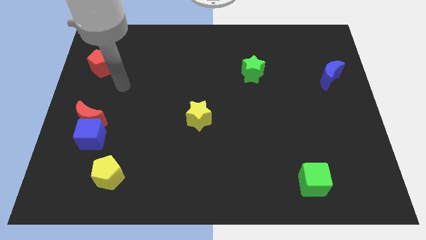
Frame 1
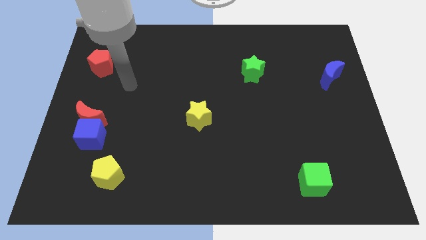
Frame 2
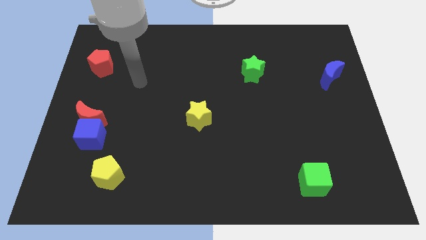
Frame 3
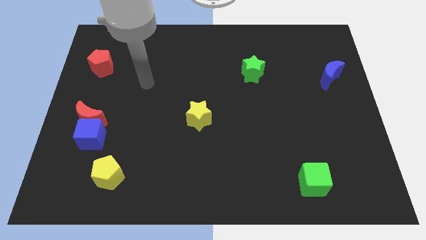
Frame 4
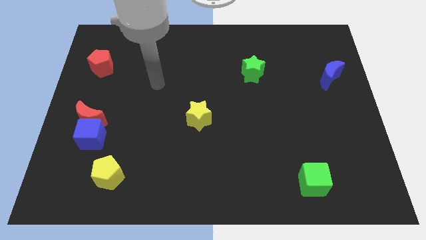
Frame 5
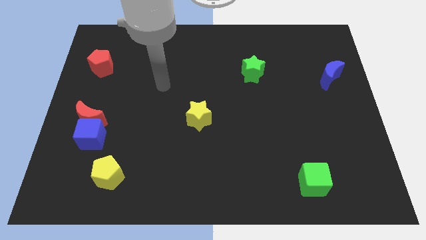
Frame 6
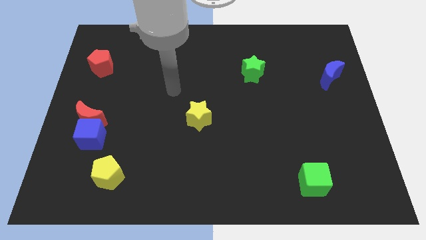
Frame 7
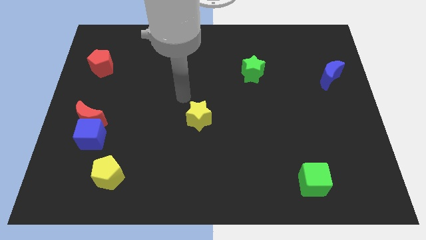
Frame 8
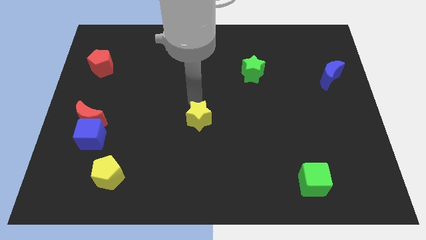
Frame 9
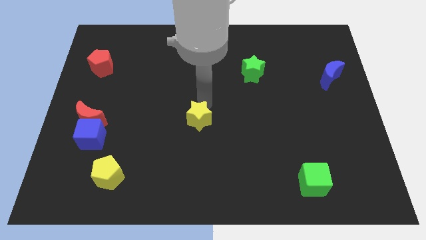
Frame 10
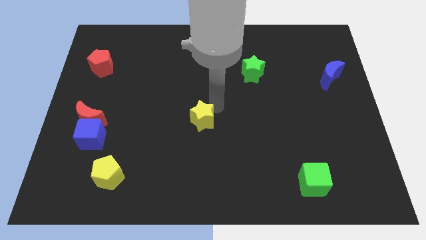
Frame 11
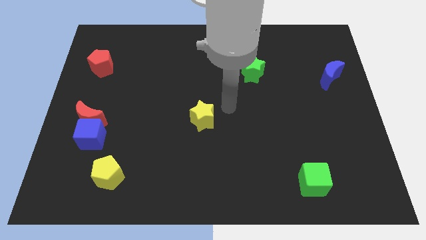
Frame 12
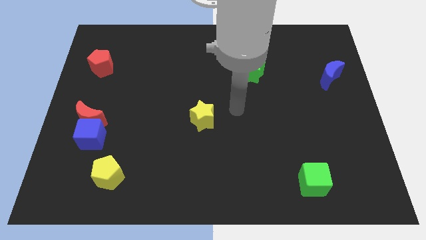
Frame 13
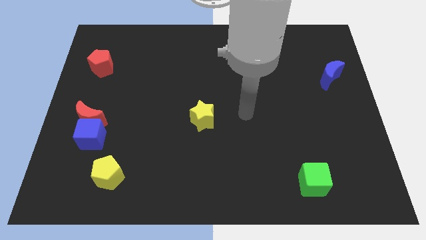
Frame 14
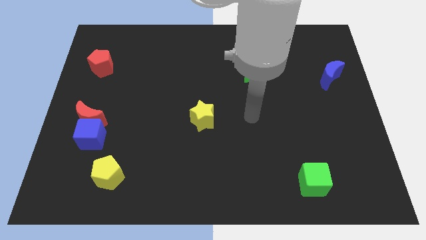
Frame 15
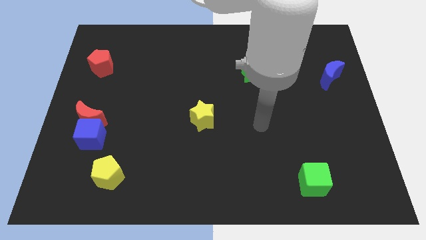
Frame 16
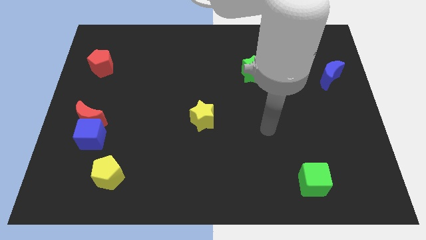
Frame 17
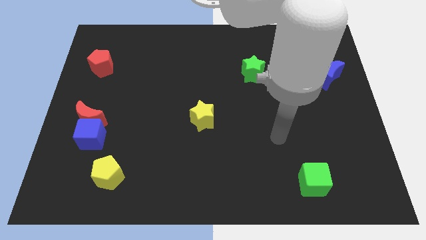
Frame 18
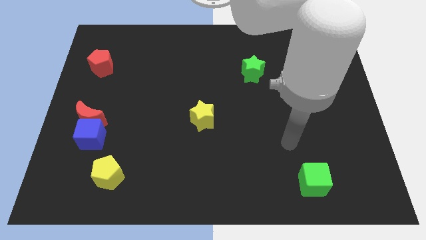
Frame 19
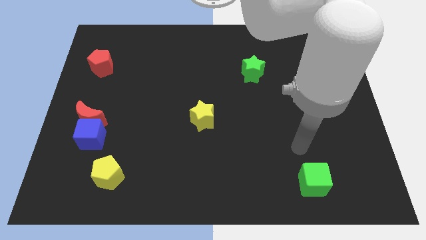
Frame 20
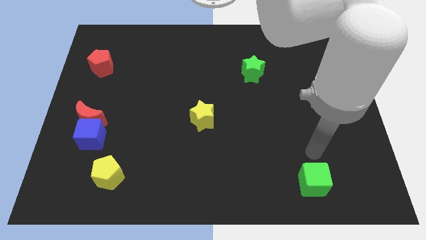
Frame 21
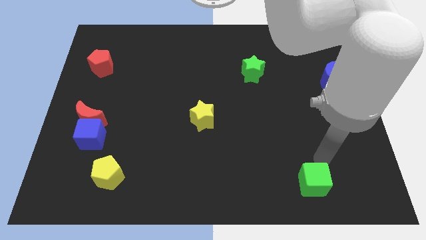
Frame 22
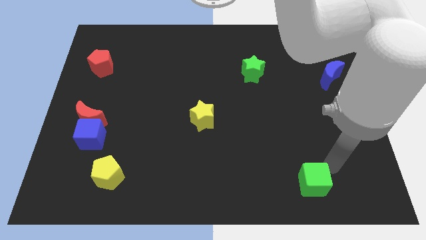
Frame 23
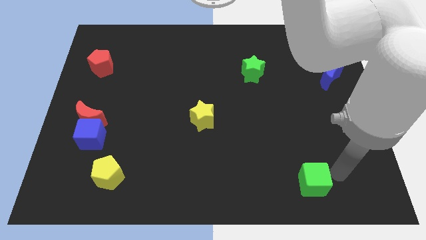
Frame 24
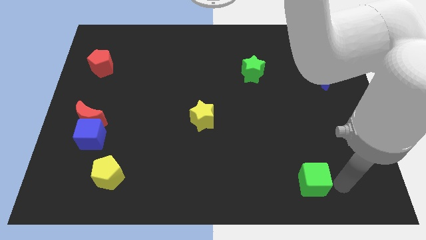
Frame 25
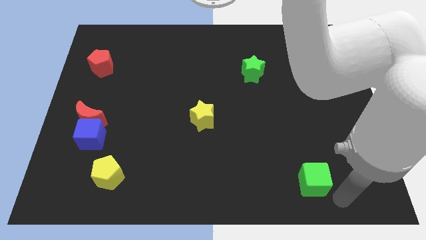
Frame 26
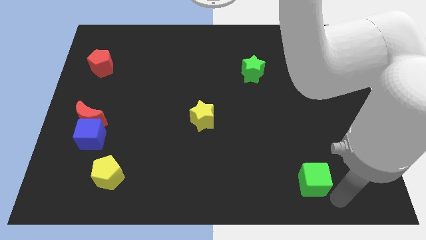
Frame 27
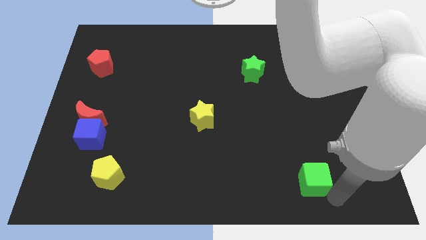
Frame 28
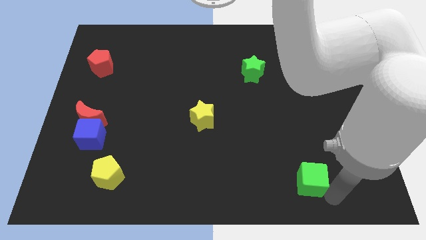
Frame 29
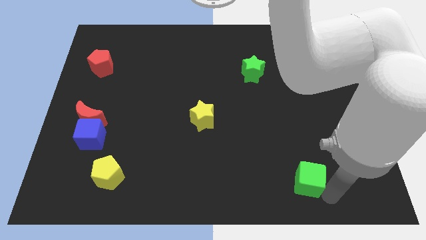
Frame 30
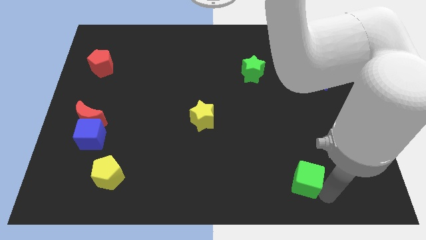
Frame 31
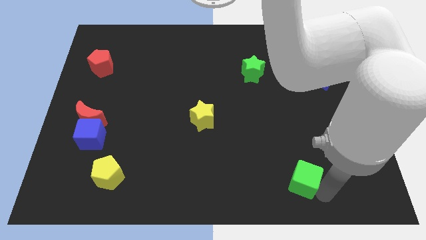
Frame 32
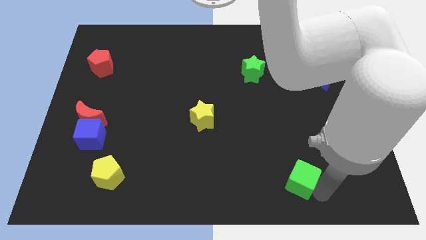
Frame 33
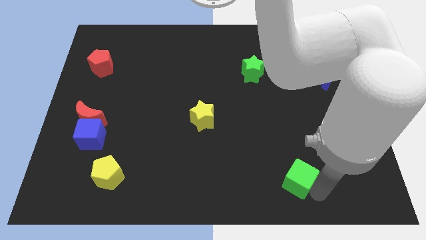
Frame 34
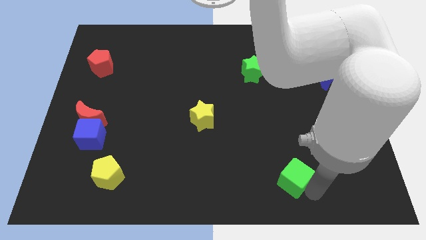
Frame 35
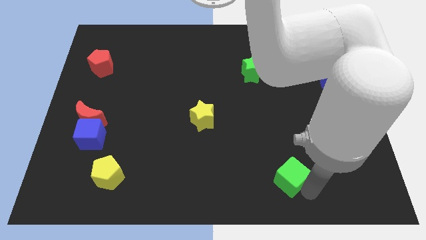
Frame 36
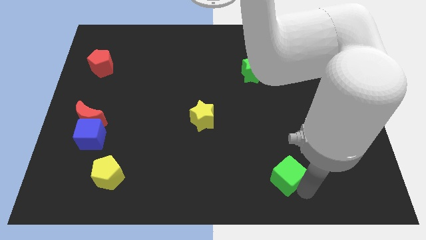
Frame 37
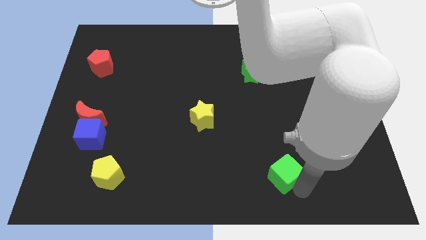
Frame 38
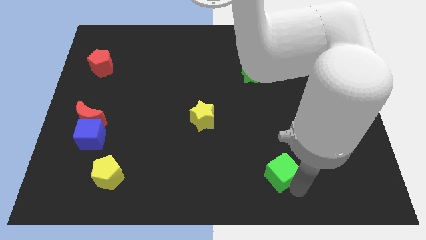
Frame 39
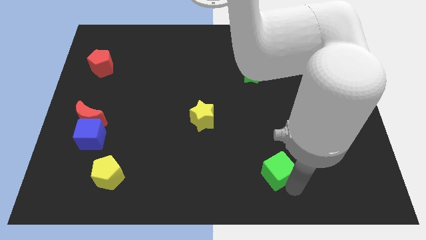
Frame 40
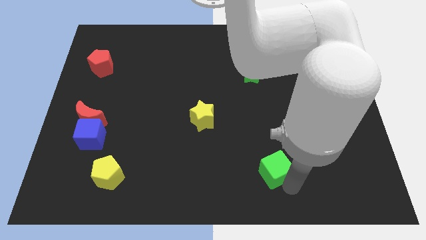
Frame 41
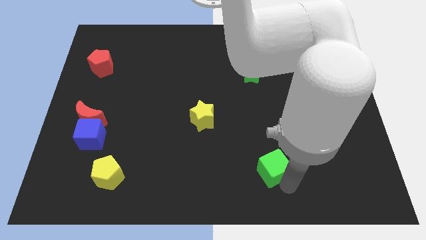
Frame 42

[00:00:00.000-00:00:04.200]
slightly move the green cube upwards and then left

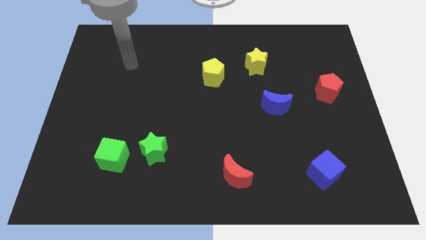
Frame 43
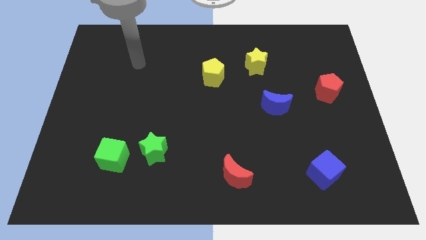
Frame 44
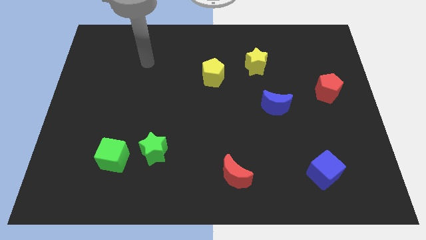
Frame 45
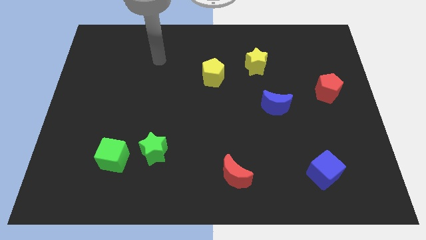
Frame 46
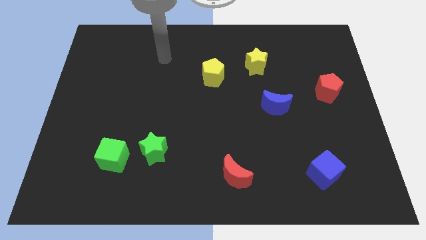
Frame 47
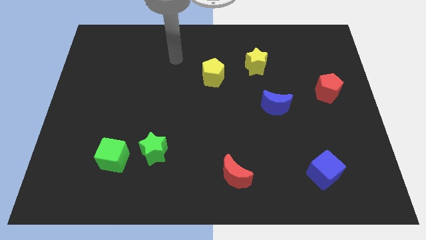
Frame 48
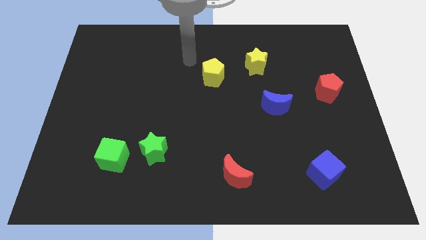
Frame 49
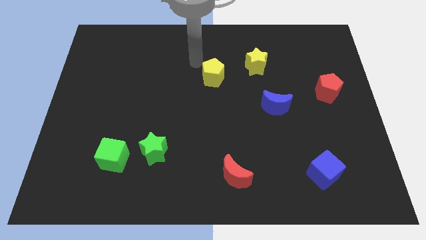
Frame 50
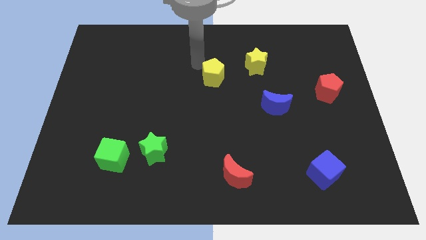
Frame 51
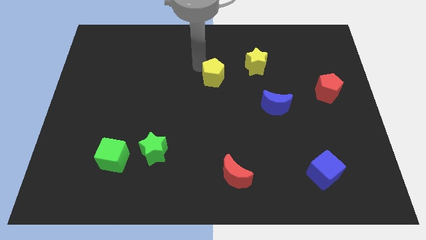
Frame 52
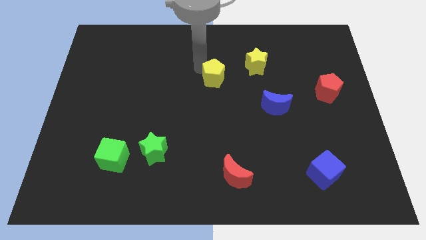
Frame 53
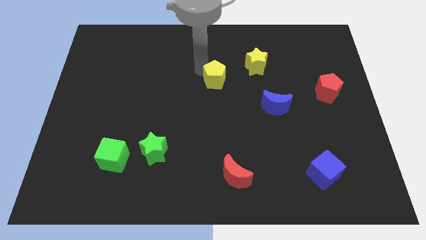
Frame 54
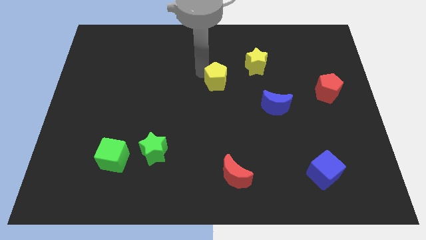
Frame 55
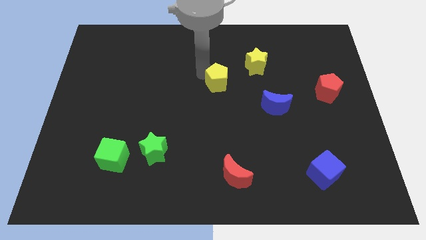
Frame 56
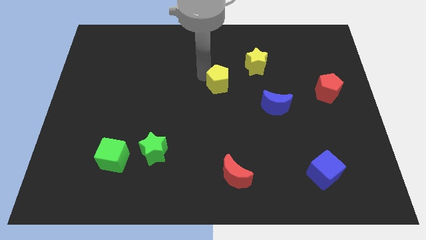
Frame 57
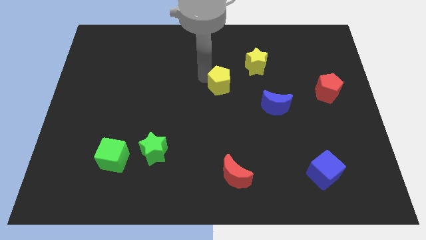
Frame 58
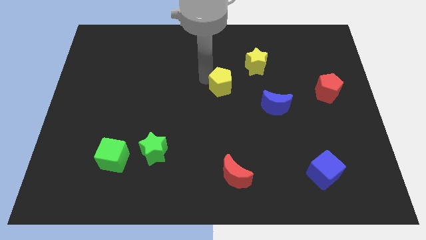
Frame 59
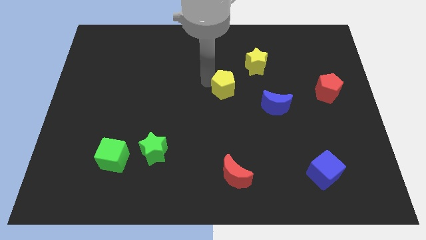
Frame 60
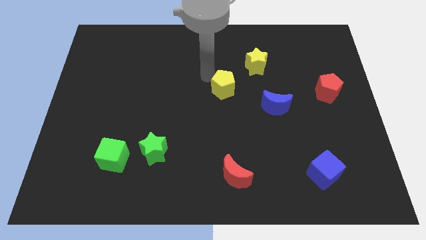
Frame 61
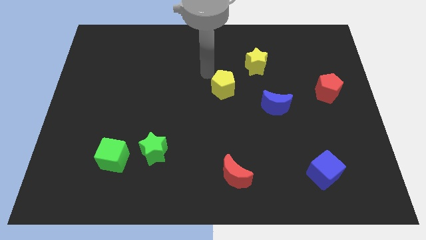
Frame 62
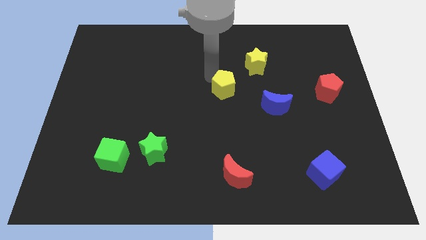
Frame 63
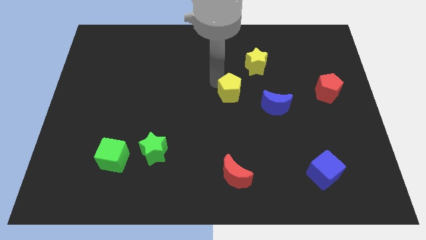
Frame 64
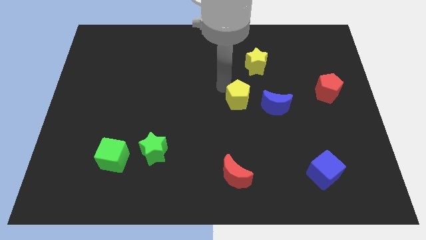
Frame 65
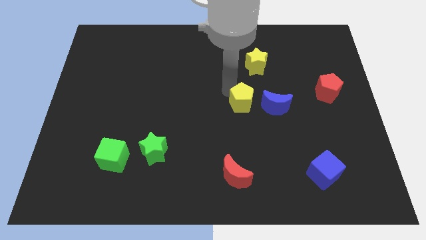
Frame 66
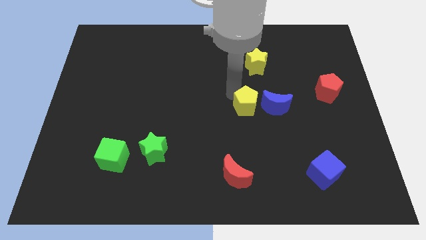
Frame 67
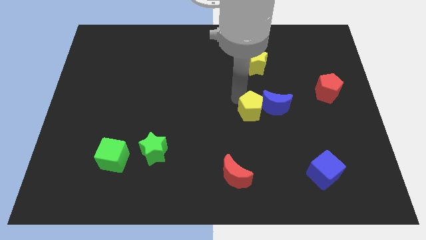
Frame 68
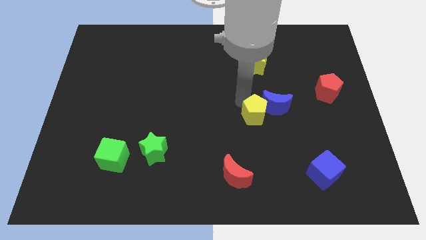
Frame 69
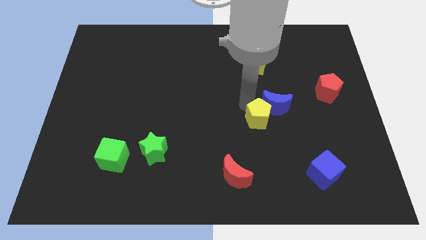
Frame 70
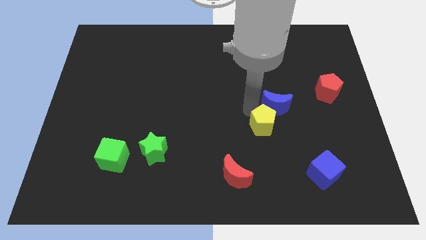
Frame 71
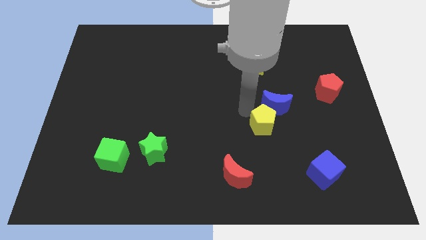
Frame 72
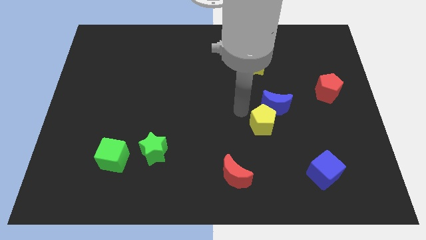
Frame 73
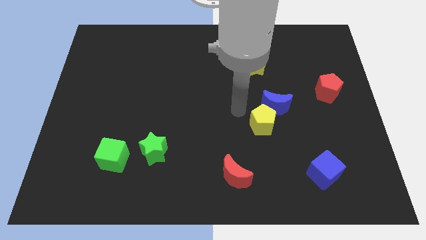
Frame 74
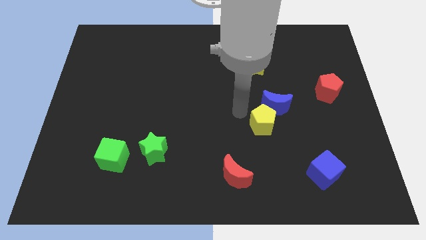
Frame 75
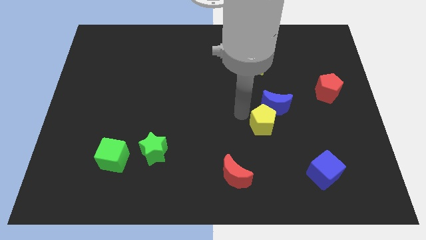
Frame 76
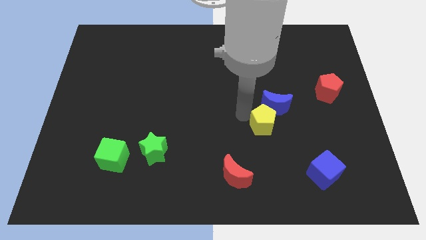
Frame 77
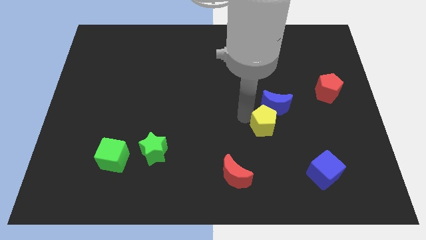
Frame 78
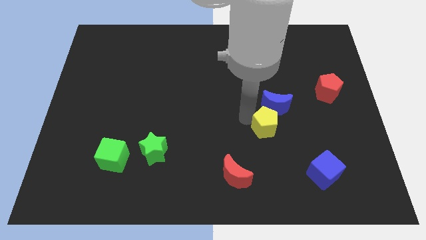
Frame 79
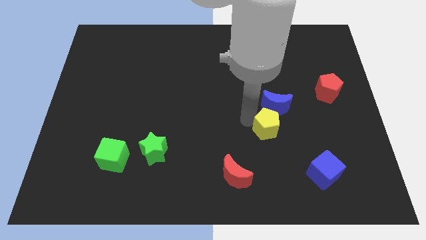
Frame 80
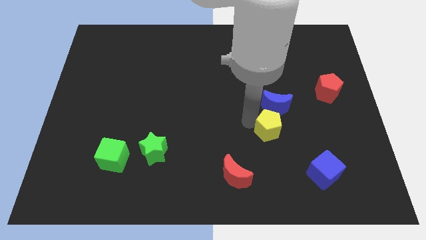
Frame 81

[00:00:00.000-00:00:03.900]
move the yellow pentagon down and then to the right
